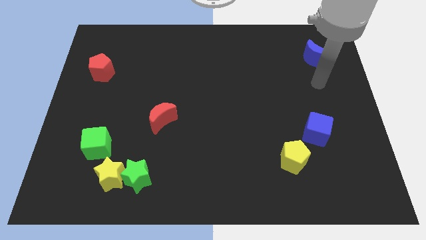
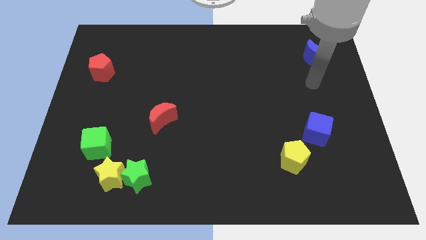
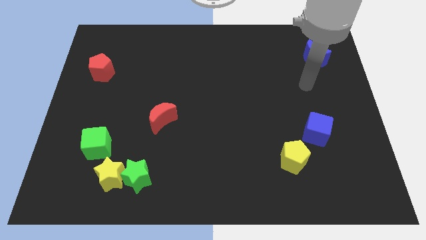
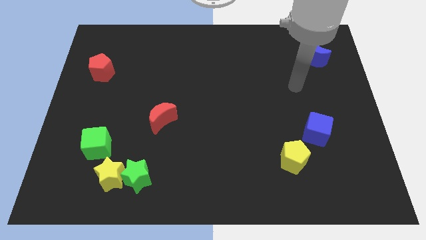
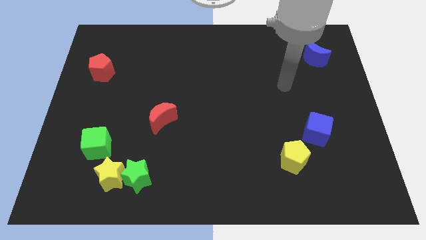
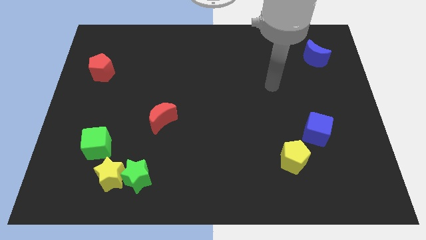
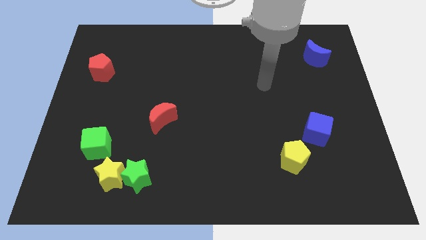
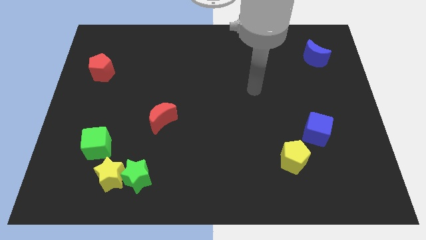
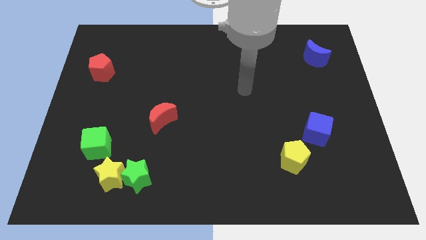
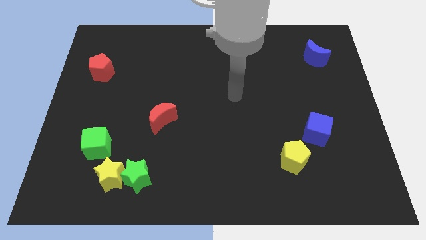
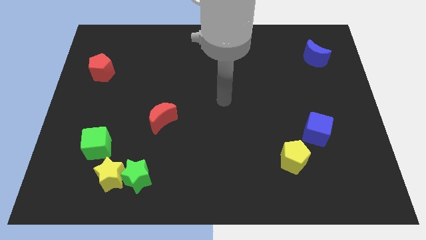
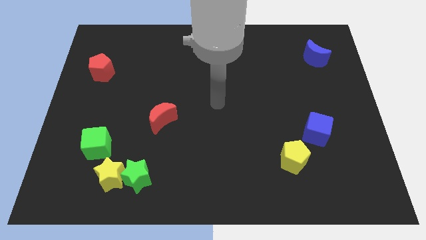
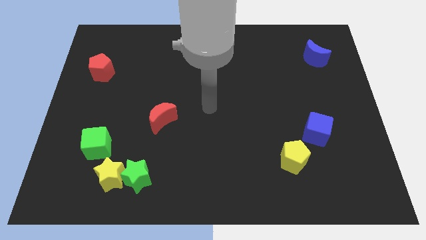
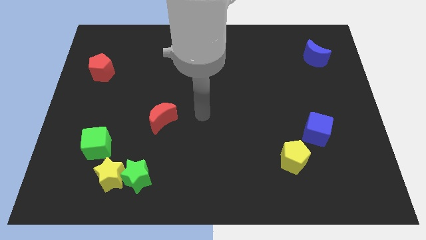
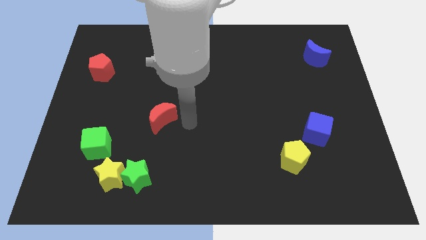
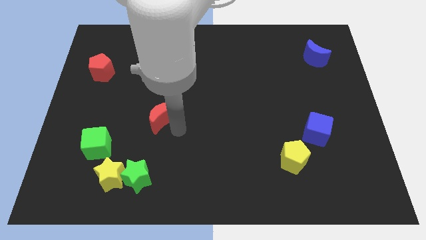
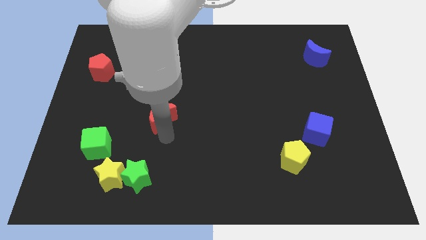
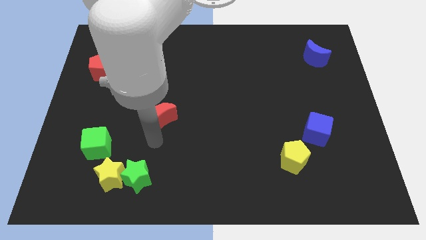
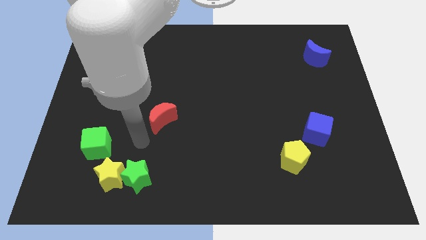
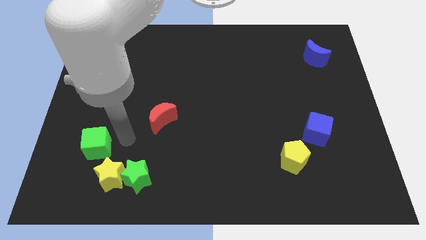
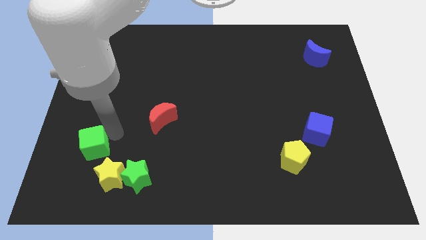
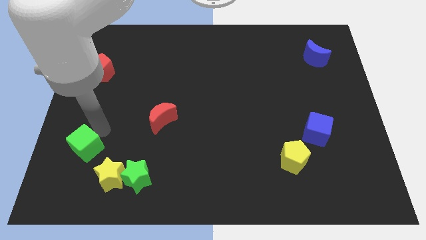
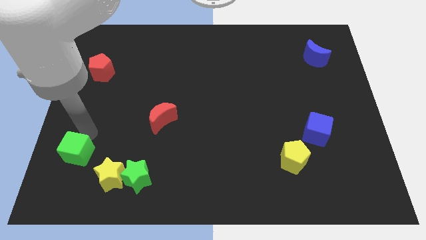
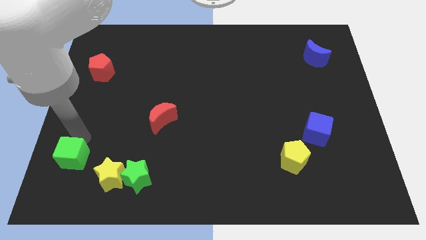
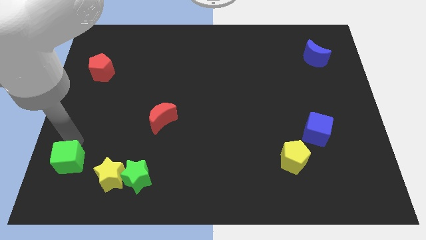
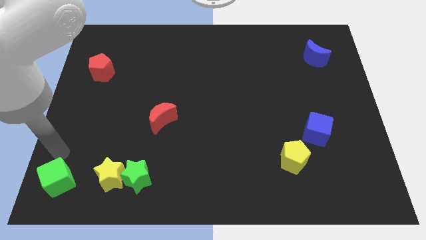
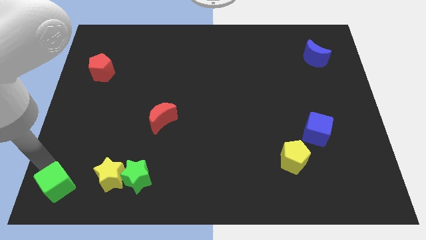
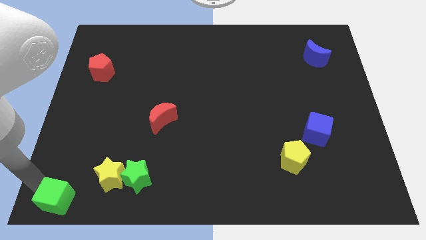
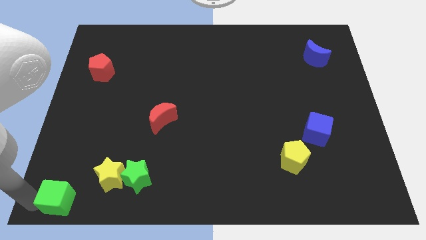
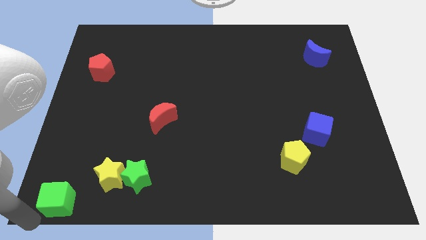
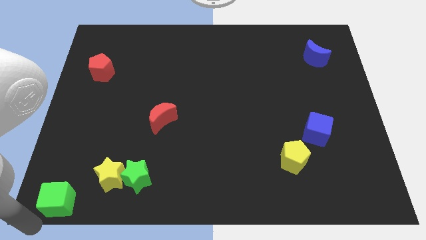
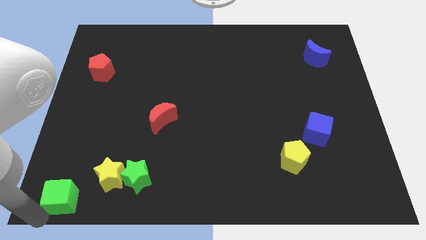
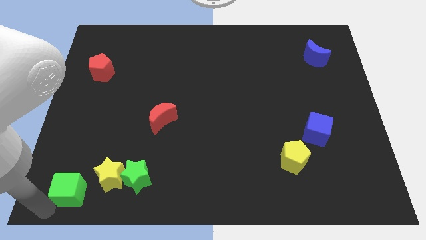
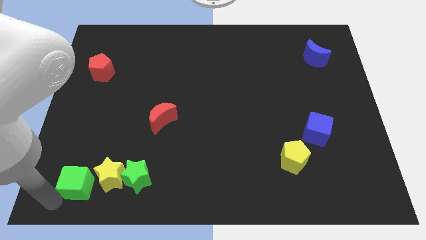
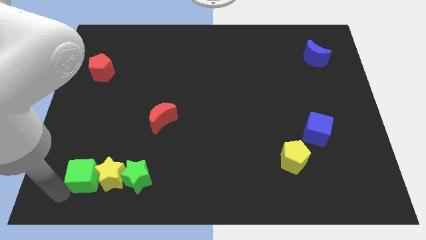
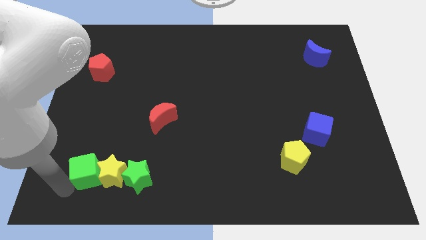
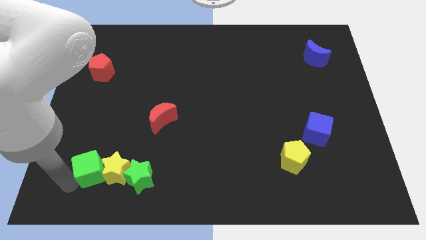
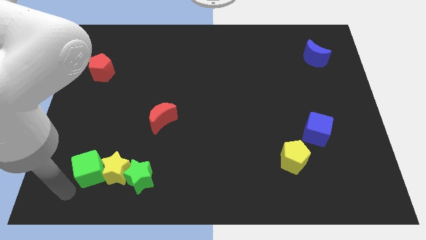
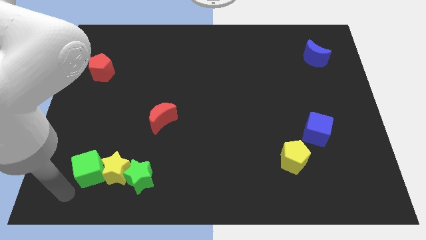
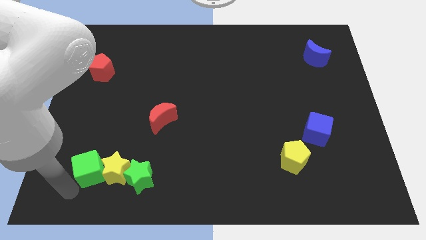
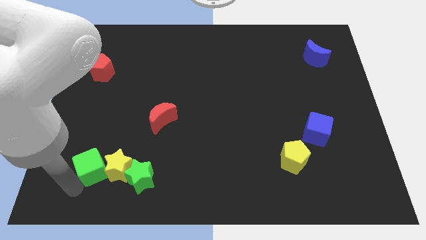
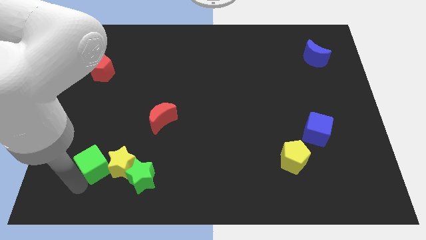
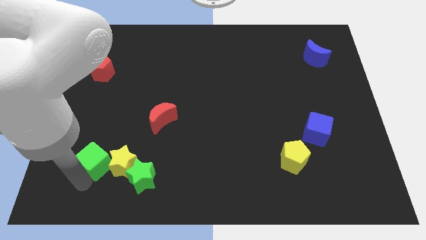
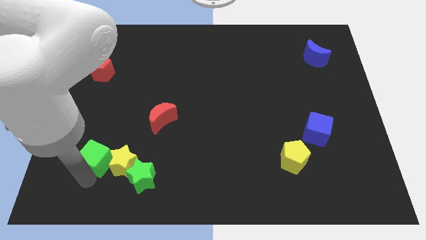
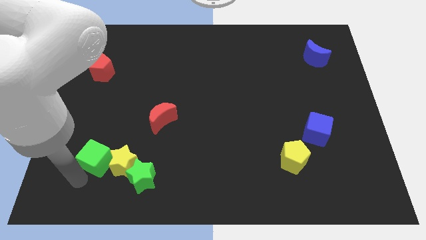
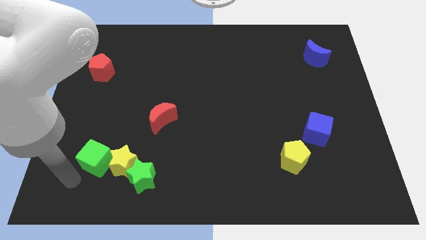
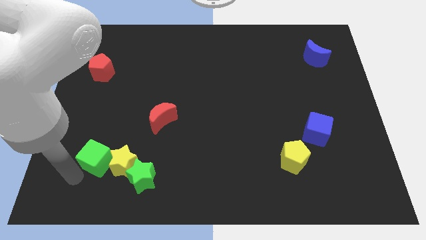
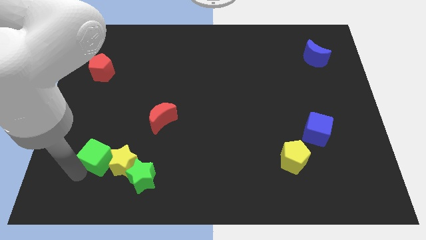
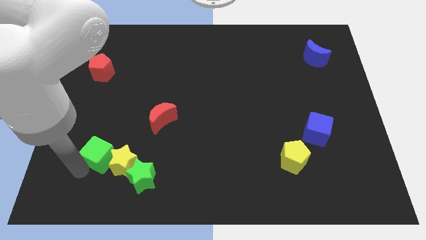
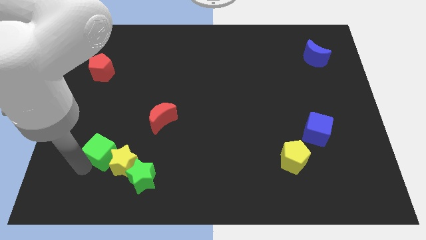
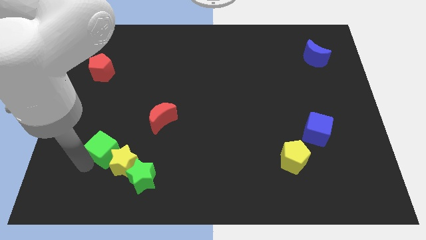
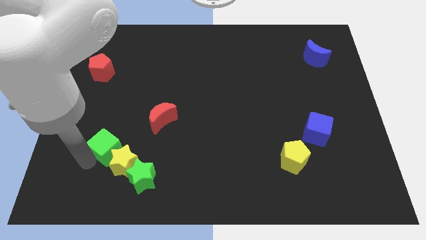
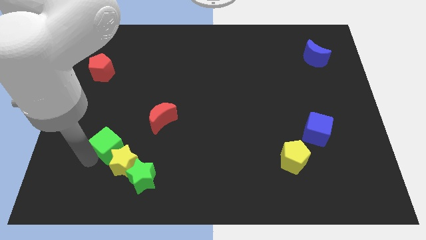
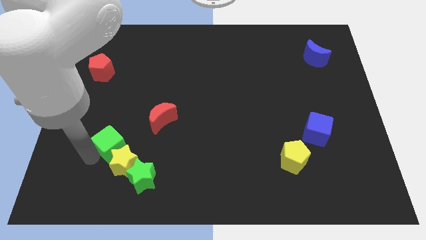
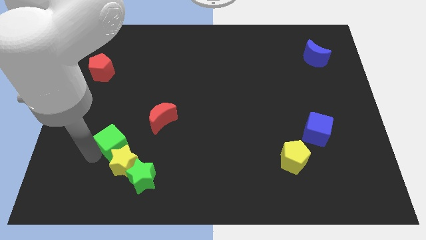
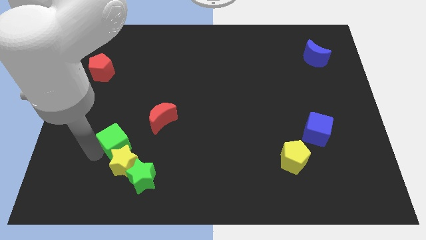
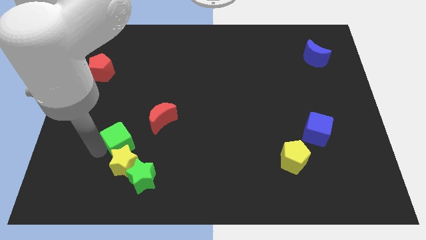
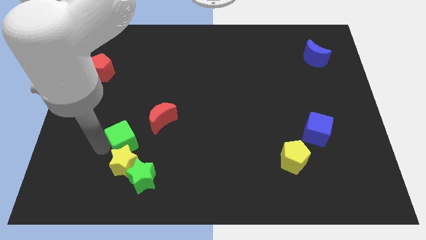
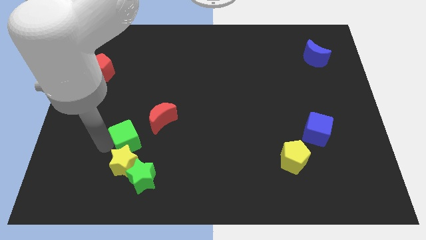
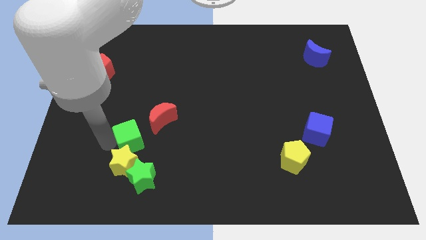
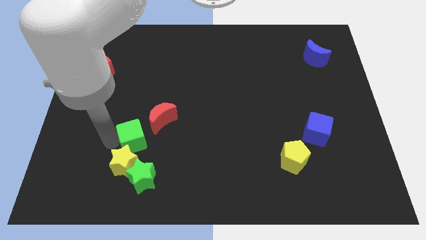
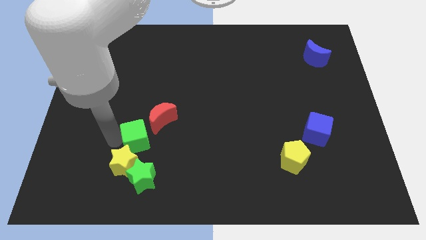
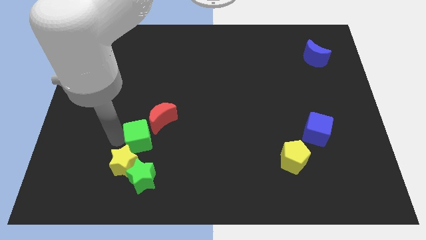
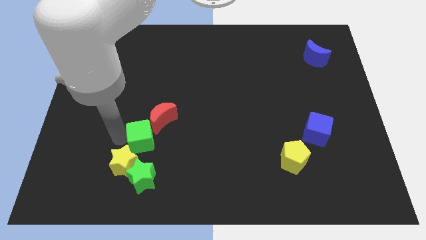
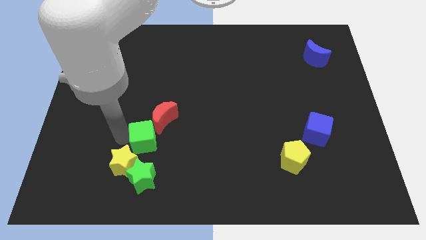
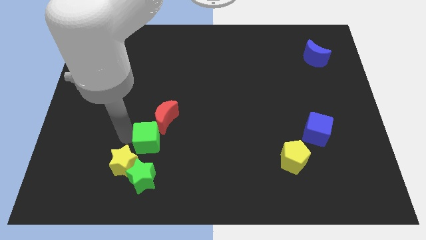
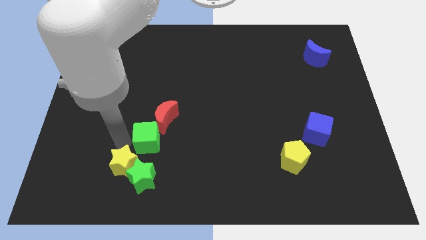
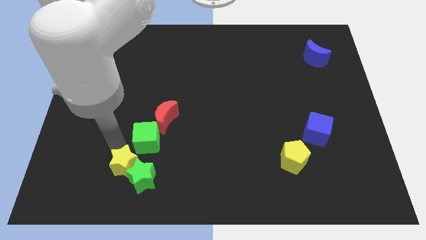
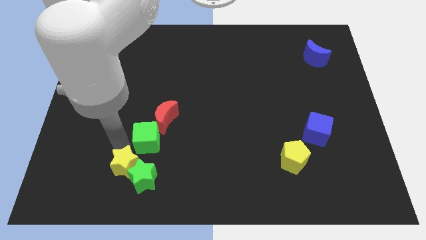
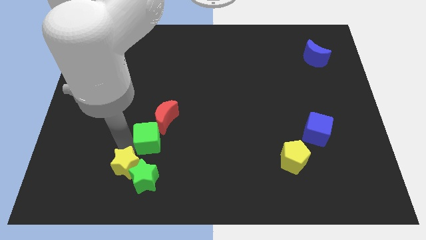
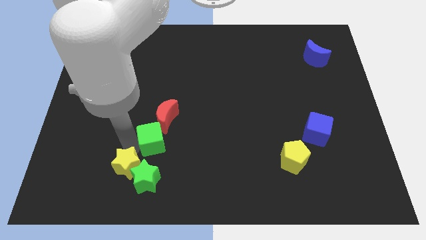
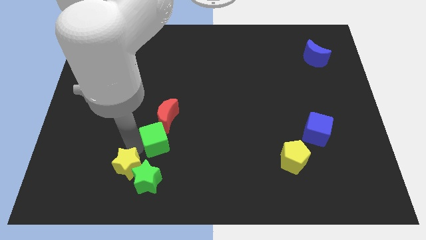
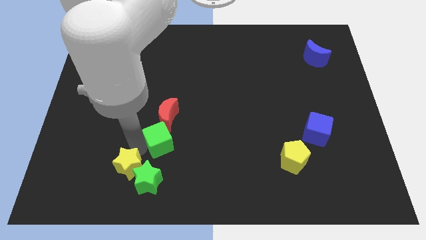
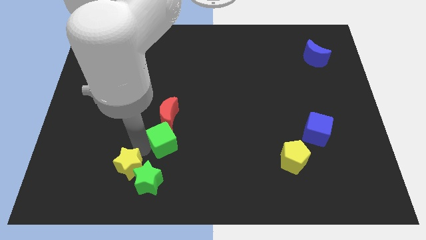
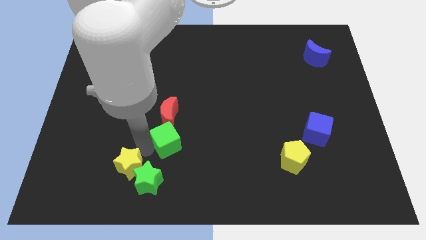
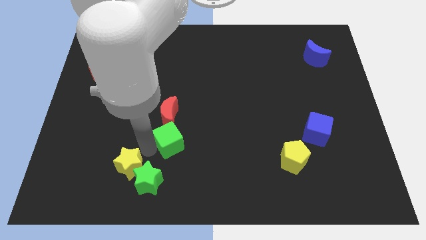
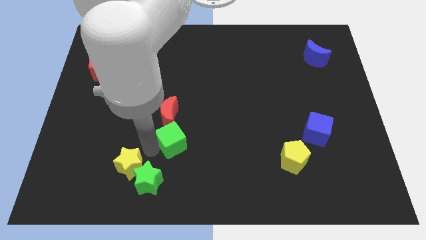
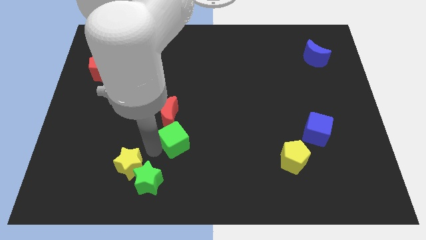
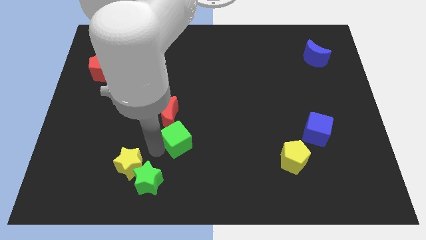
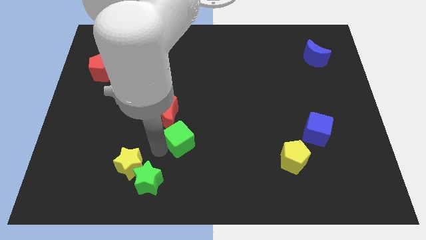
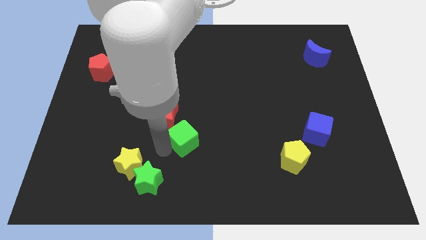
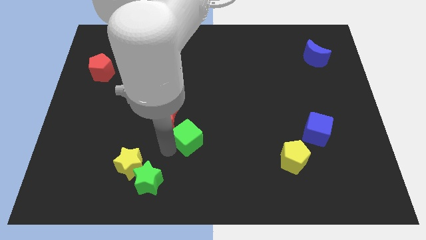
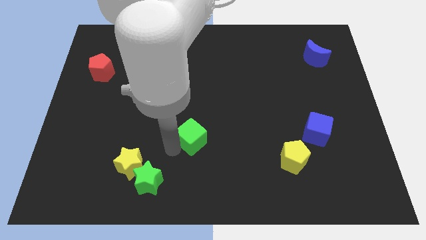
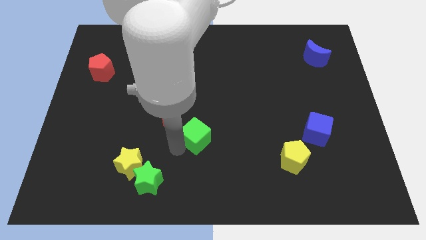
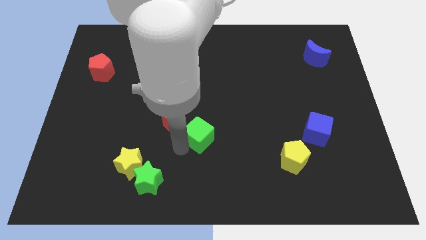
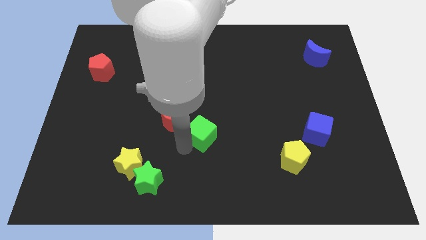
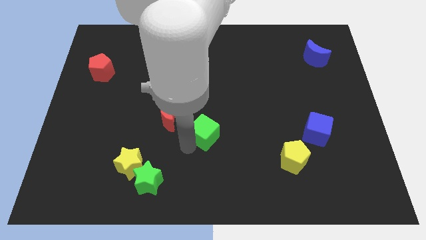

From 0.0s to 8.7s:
push the green cube to the right of the red moon
